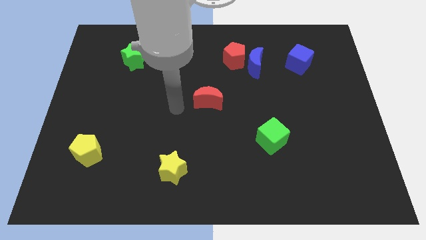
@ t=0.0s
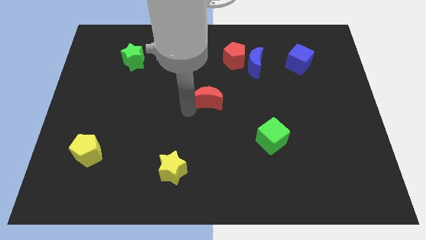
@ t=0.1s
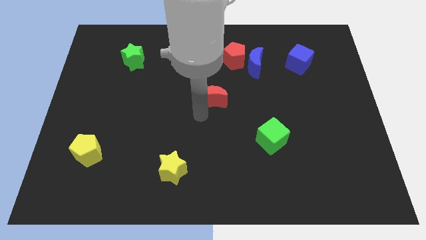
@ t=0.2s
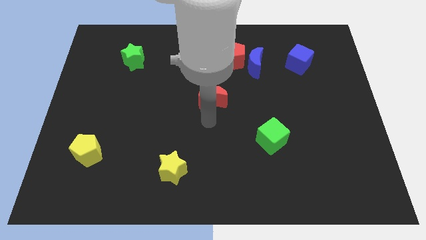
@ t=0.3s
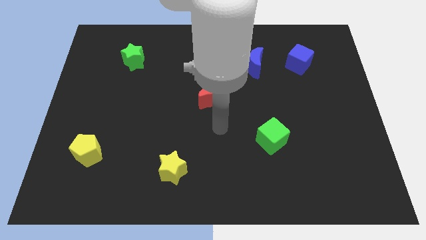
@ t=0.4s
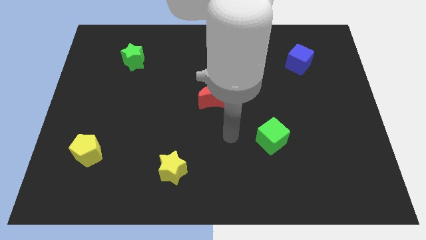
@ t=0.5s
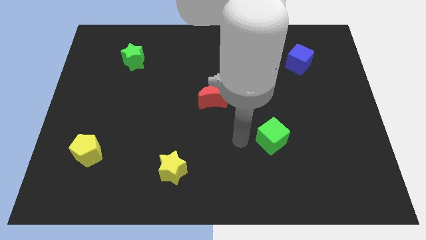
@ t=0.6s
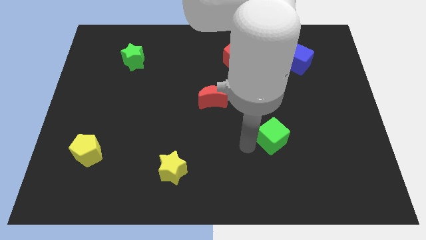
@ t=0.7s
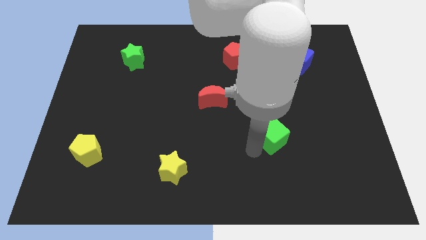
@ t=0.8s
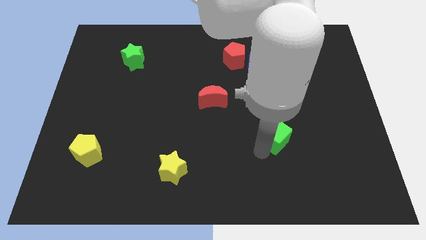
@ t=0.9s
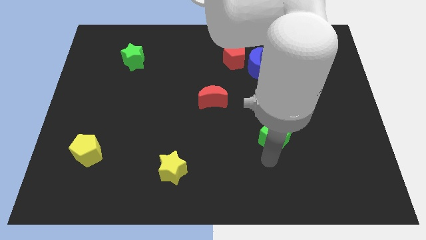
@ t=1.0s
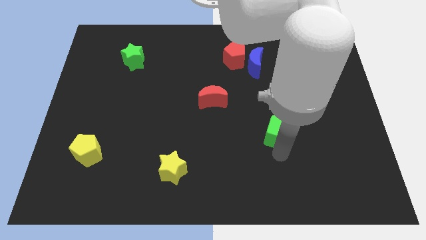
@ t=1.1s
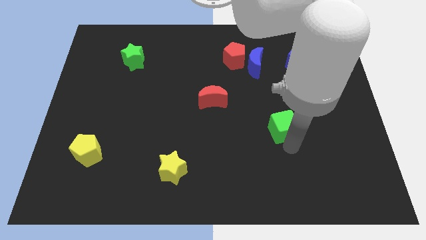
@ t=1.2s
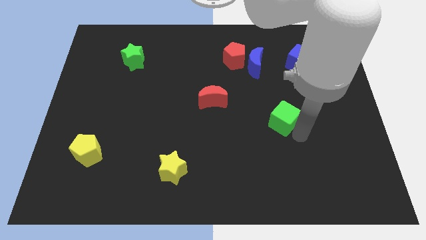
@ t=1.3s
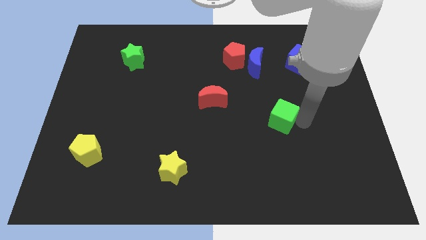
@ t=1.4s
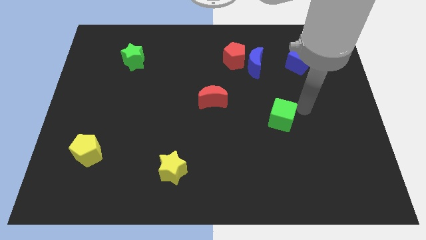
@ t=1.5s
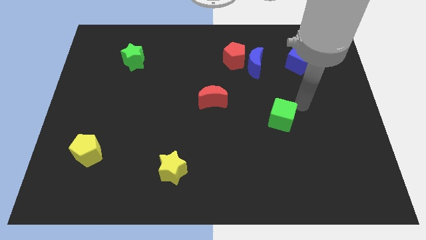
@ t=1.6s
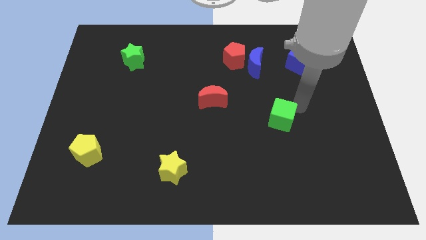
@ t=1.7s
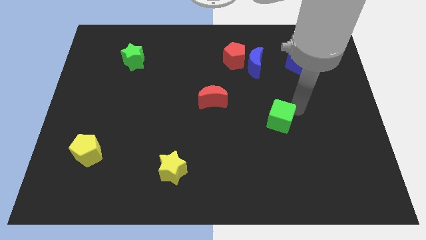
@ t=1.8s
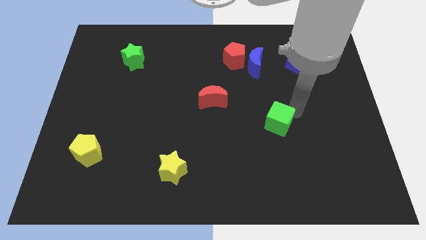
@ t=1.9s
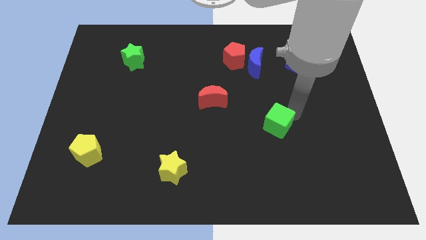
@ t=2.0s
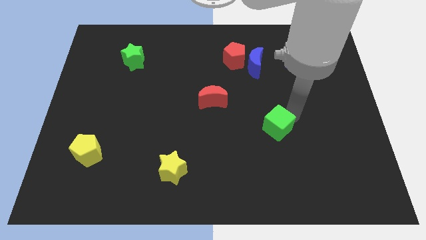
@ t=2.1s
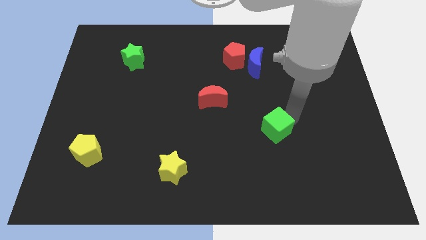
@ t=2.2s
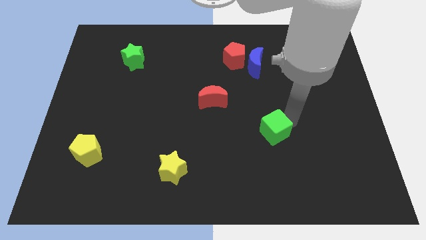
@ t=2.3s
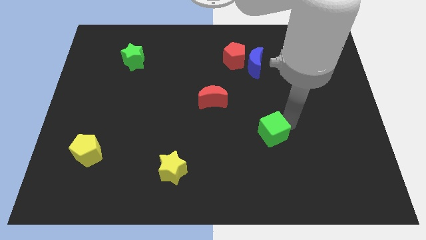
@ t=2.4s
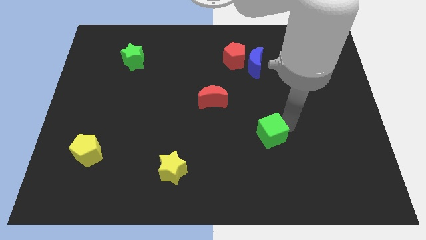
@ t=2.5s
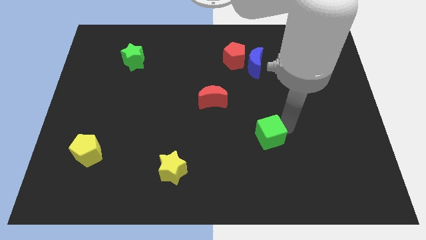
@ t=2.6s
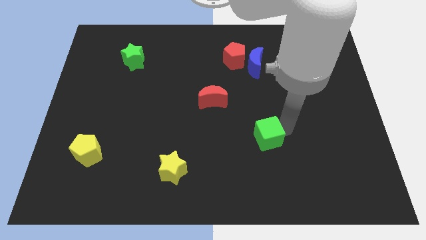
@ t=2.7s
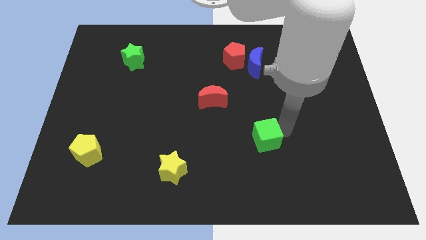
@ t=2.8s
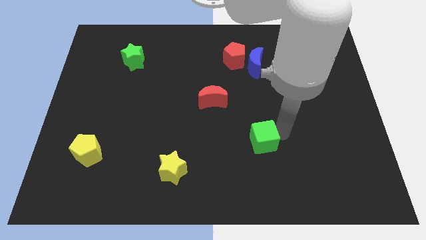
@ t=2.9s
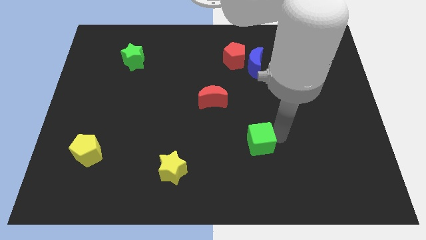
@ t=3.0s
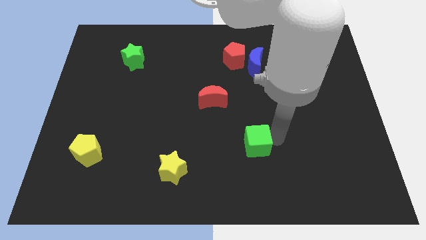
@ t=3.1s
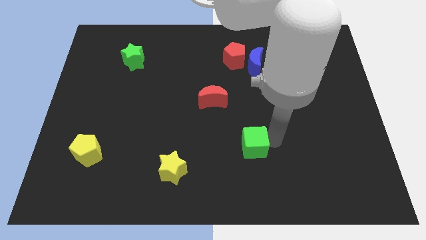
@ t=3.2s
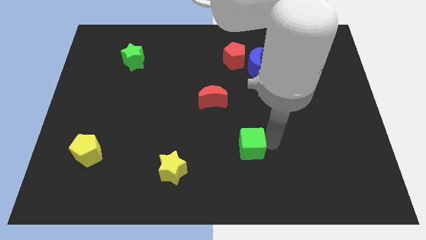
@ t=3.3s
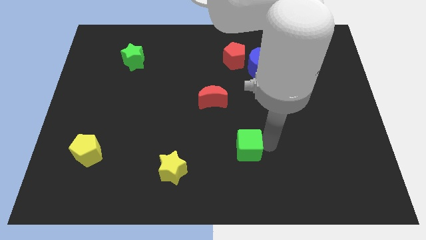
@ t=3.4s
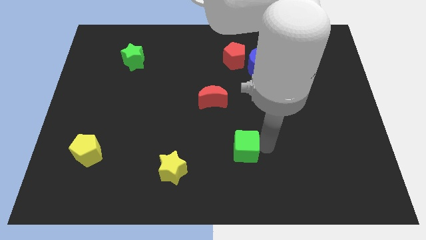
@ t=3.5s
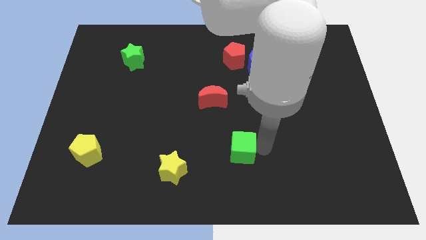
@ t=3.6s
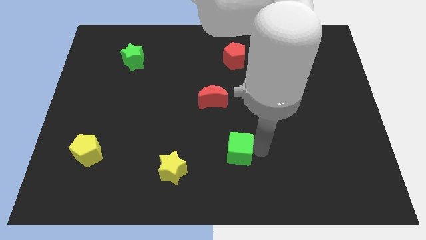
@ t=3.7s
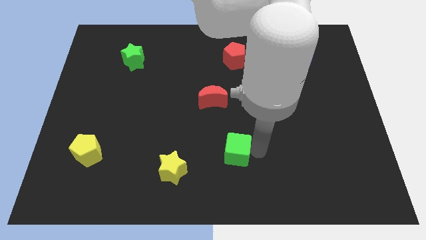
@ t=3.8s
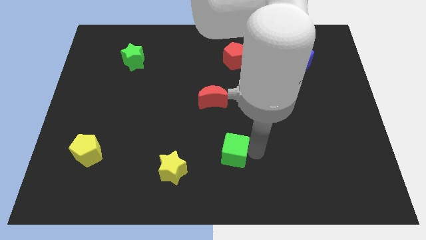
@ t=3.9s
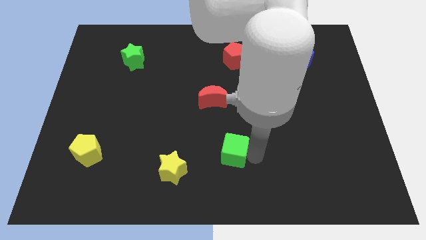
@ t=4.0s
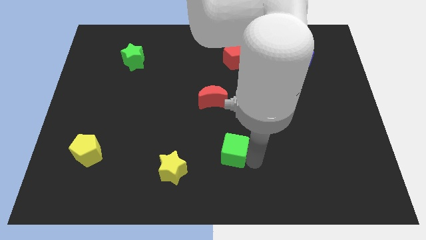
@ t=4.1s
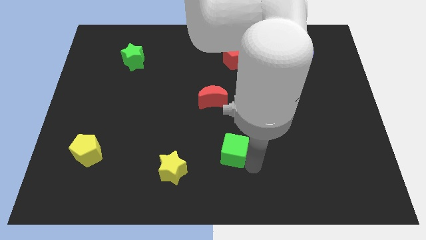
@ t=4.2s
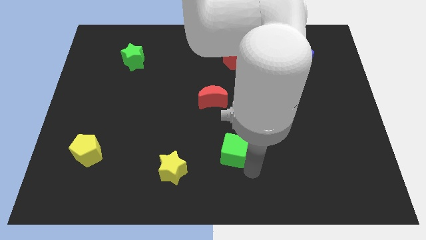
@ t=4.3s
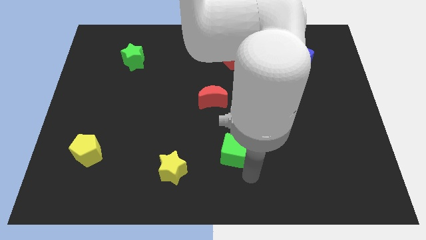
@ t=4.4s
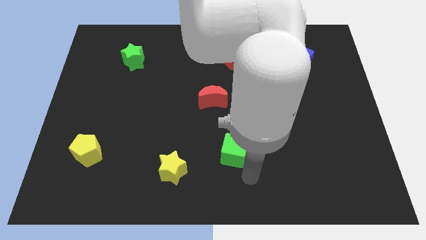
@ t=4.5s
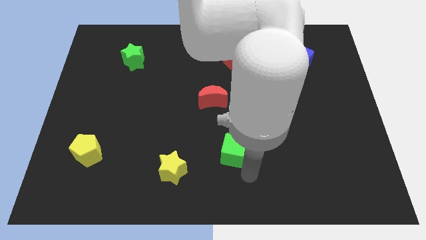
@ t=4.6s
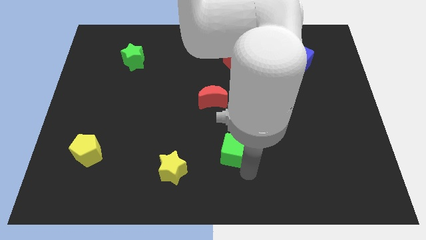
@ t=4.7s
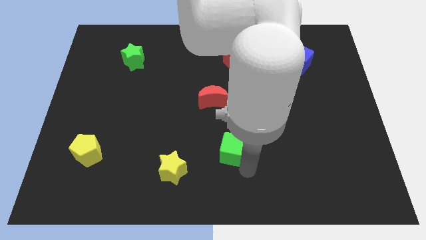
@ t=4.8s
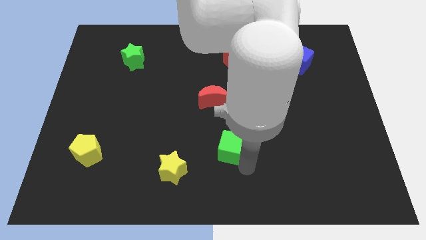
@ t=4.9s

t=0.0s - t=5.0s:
push the green cube to the bottom of the red moon

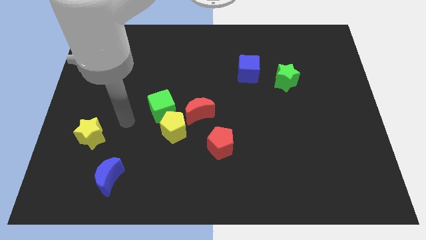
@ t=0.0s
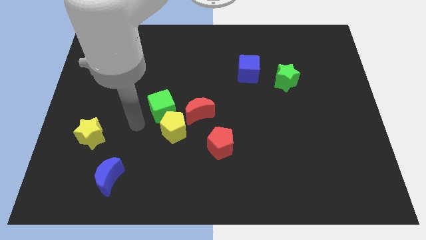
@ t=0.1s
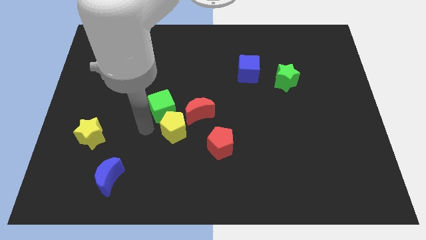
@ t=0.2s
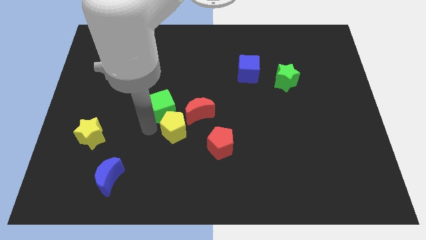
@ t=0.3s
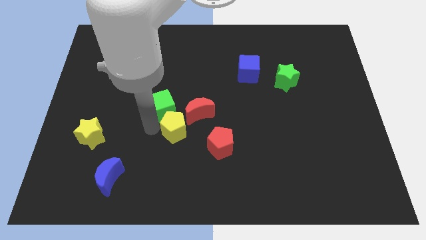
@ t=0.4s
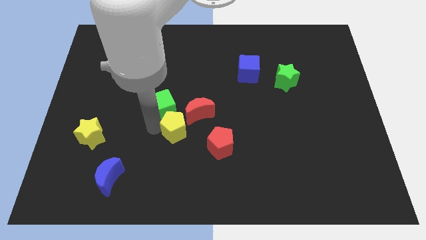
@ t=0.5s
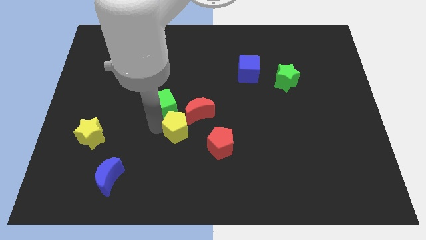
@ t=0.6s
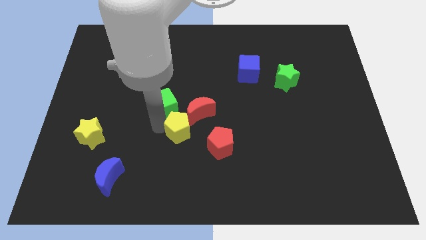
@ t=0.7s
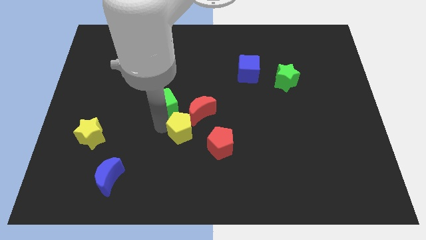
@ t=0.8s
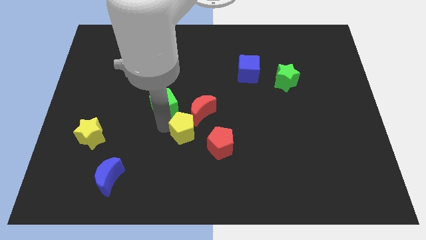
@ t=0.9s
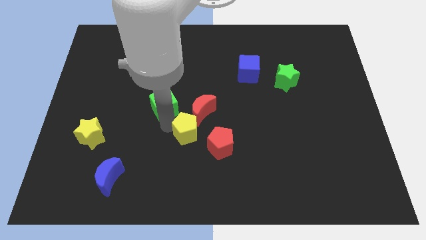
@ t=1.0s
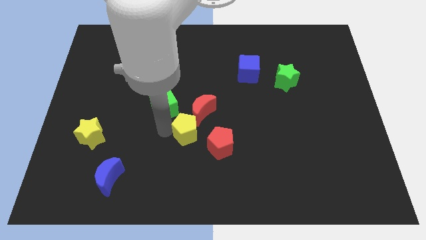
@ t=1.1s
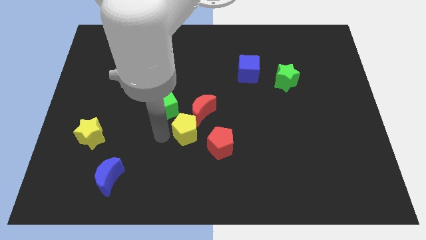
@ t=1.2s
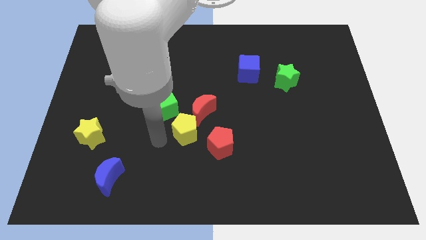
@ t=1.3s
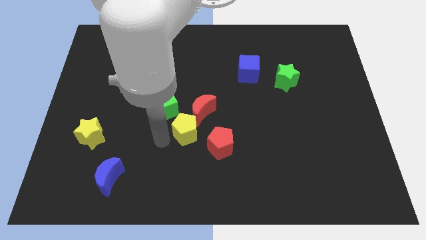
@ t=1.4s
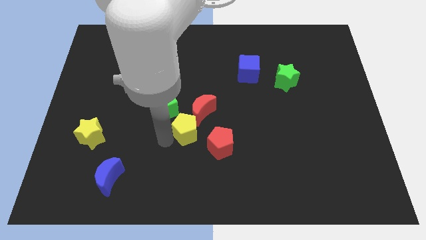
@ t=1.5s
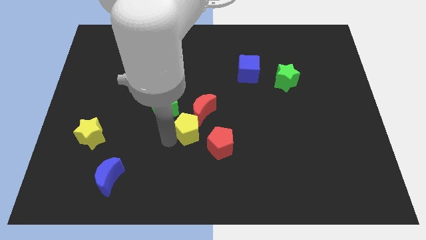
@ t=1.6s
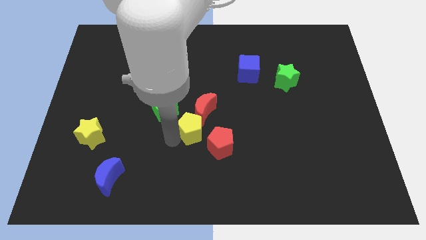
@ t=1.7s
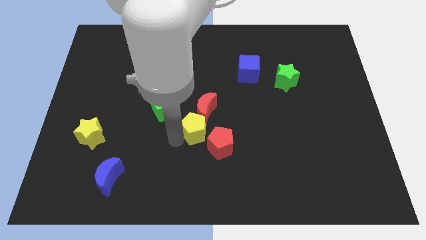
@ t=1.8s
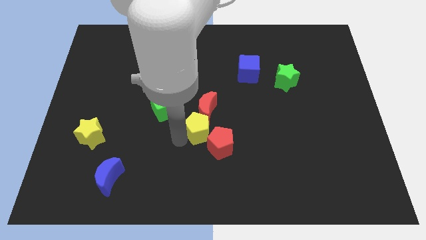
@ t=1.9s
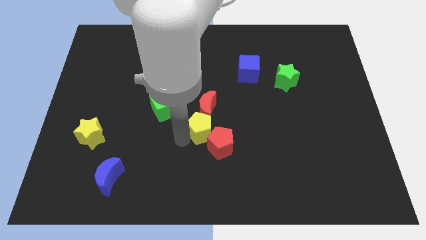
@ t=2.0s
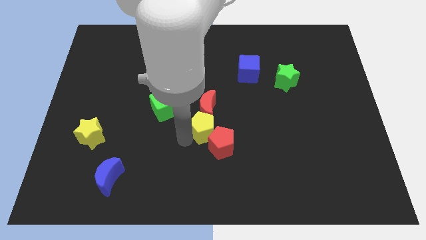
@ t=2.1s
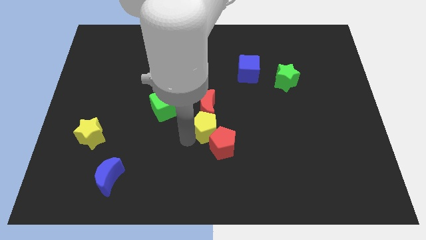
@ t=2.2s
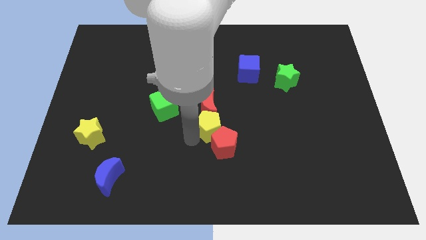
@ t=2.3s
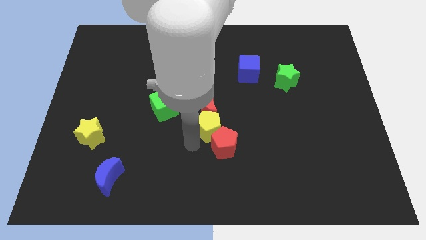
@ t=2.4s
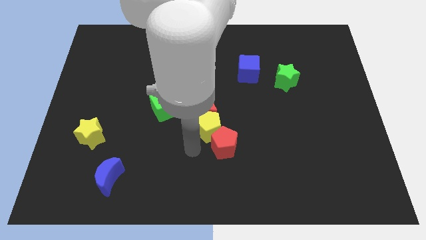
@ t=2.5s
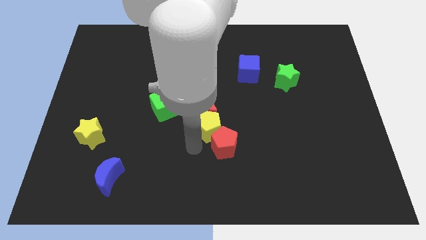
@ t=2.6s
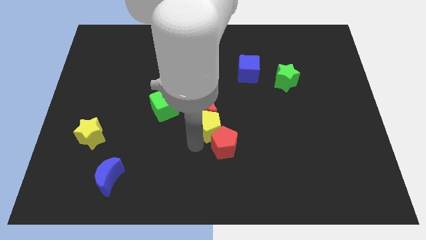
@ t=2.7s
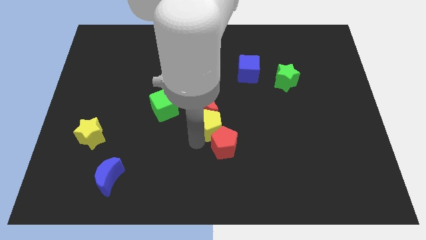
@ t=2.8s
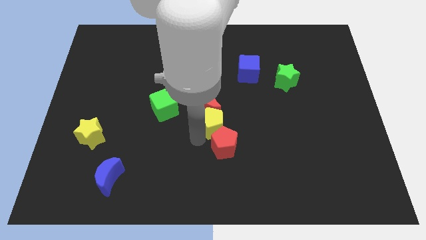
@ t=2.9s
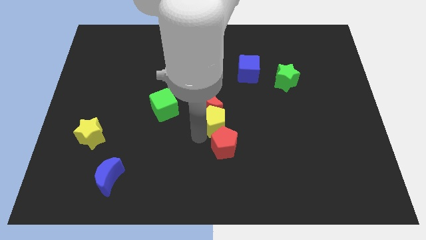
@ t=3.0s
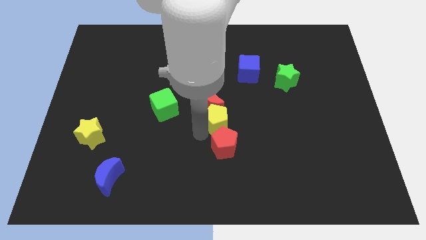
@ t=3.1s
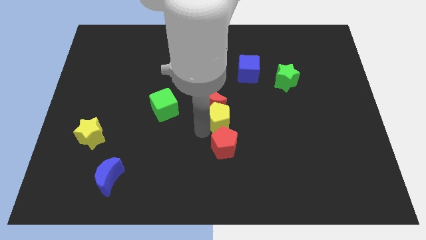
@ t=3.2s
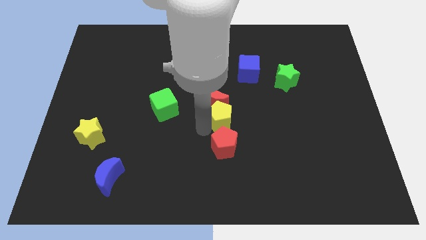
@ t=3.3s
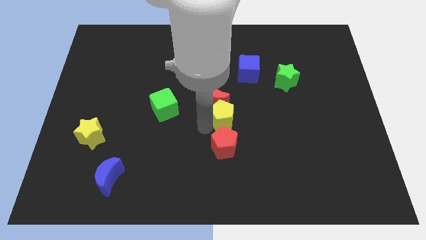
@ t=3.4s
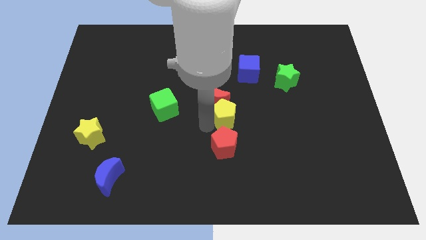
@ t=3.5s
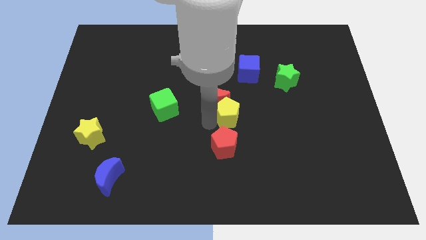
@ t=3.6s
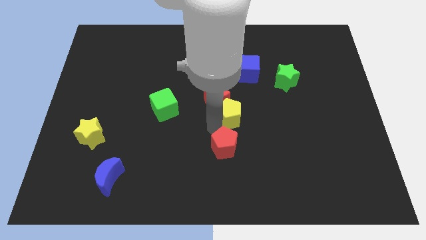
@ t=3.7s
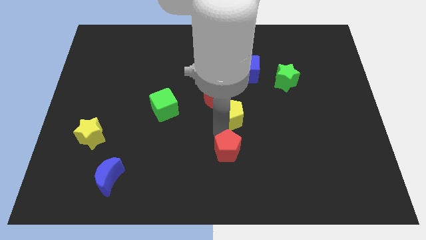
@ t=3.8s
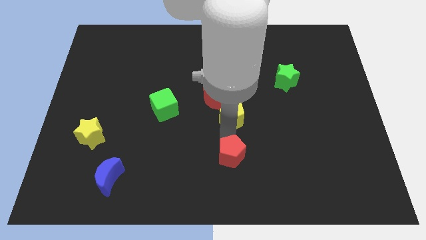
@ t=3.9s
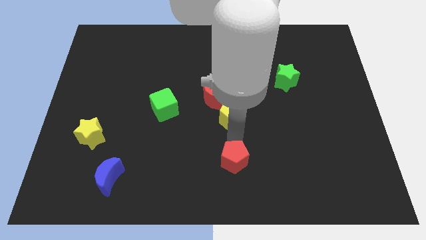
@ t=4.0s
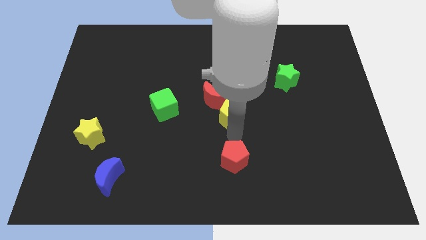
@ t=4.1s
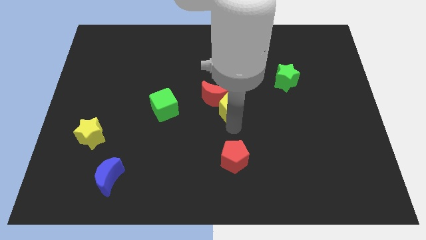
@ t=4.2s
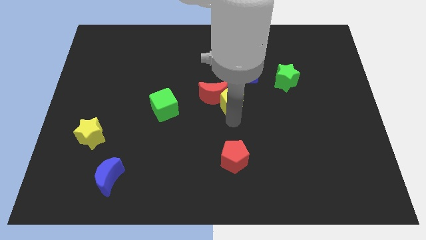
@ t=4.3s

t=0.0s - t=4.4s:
put the yellow pentagon to the bottom left side of the blue cube
